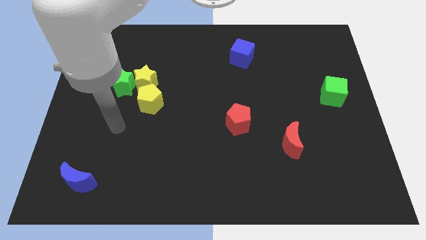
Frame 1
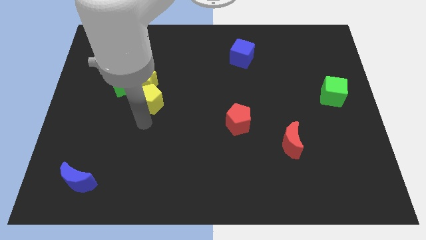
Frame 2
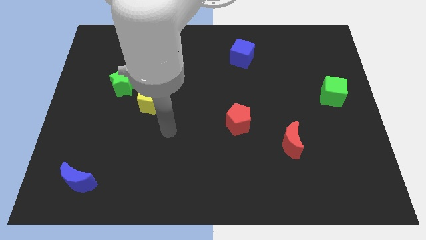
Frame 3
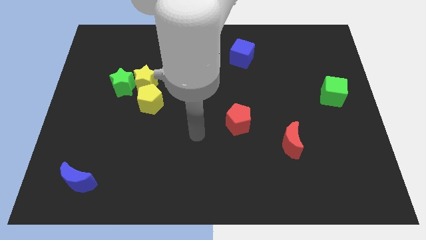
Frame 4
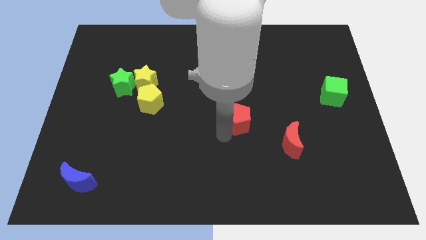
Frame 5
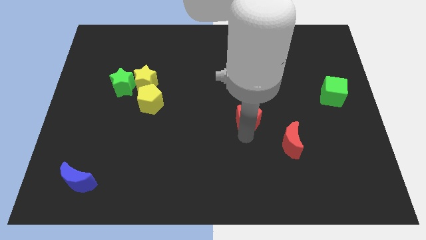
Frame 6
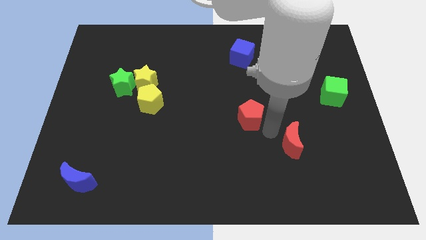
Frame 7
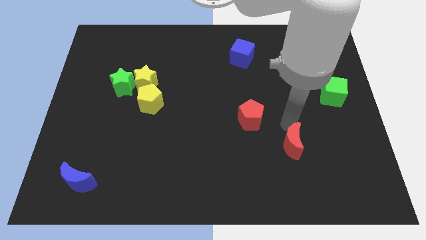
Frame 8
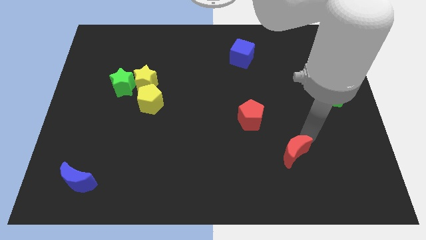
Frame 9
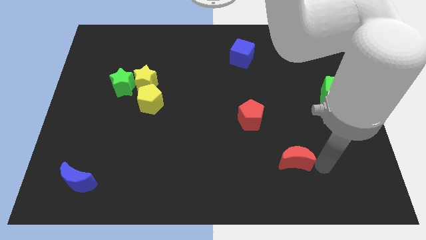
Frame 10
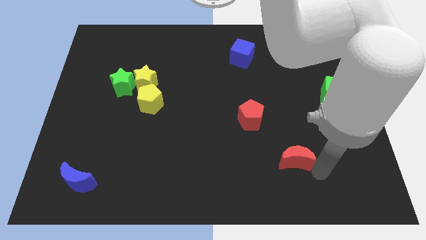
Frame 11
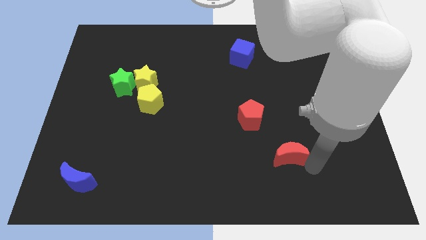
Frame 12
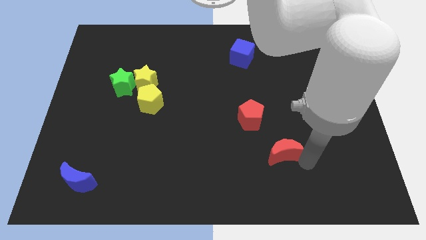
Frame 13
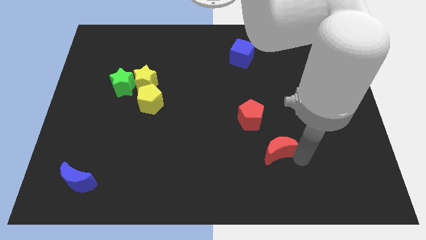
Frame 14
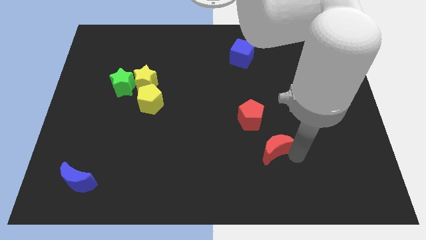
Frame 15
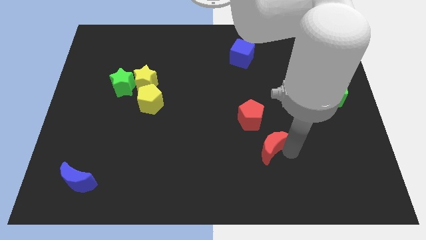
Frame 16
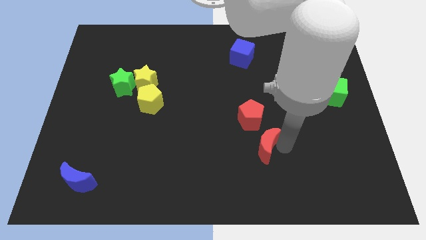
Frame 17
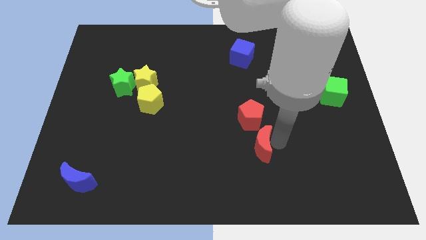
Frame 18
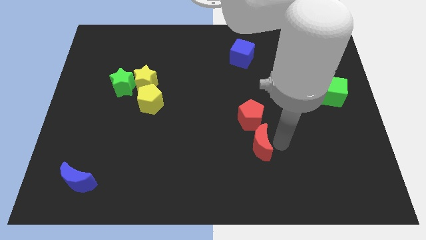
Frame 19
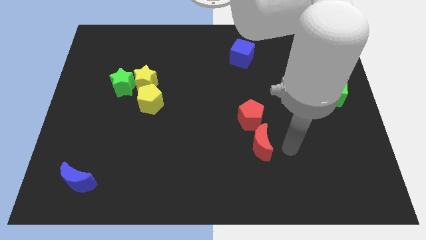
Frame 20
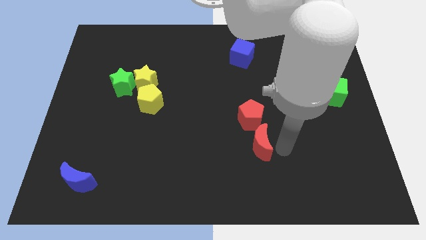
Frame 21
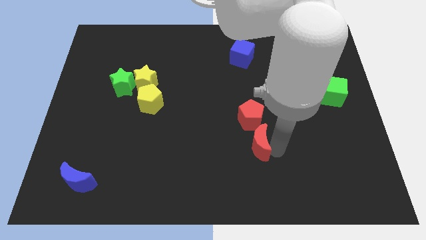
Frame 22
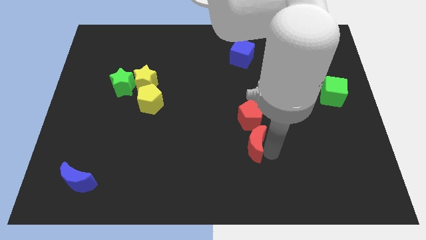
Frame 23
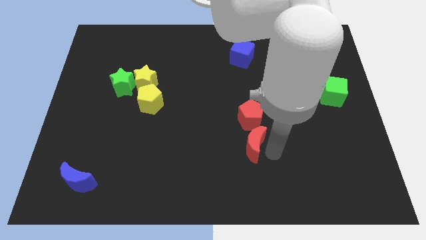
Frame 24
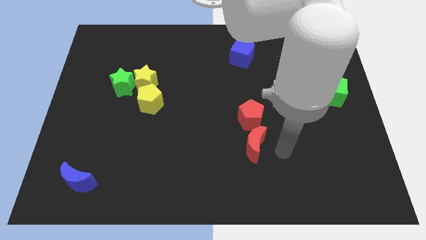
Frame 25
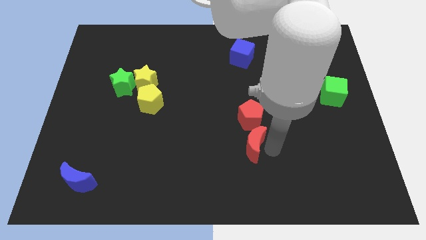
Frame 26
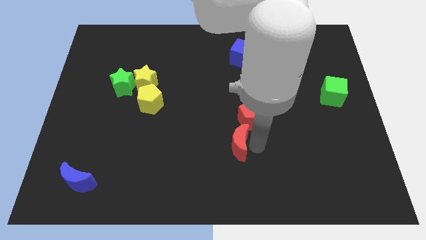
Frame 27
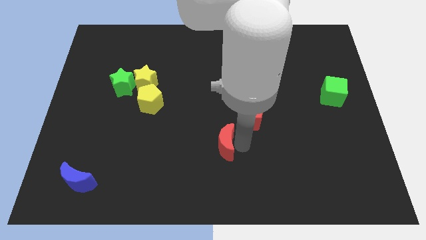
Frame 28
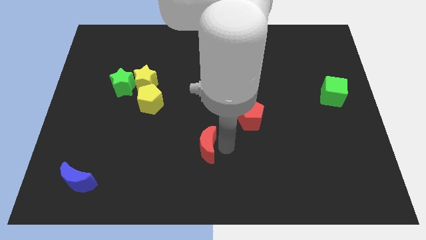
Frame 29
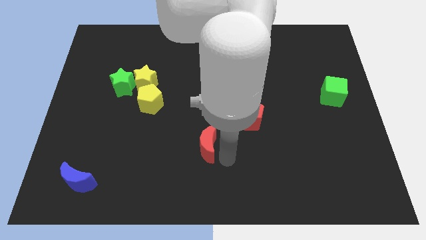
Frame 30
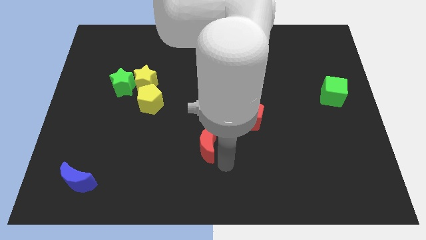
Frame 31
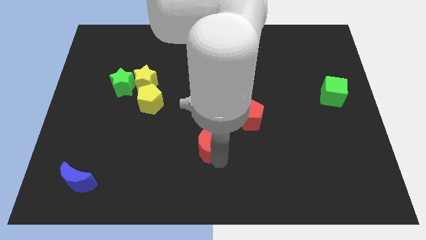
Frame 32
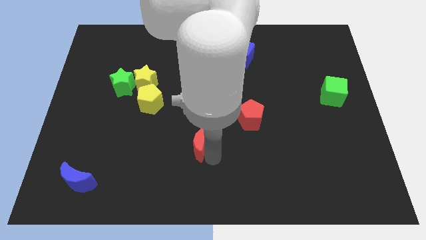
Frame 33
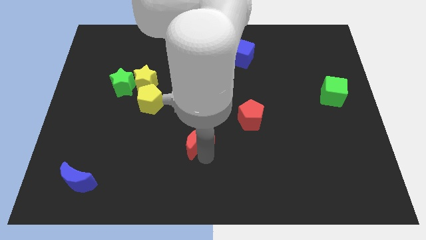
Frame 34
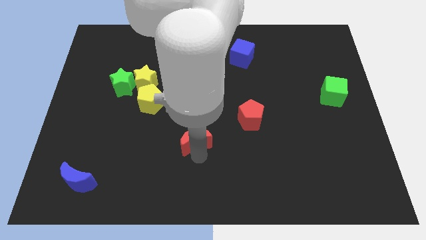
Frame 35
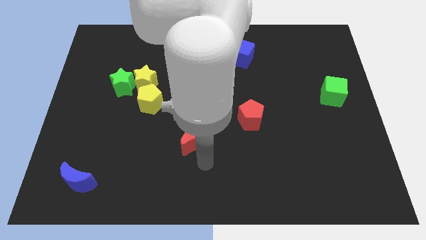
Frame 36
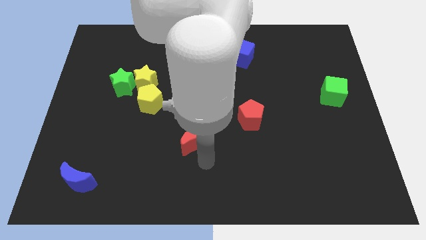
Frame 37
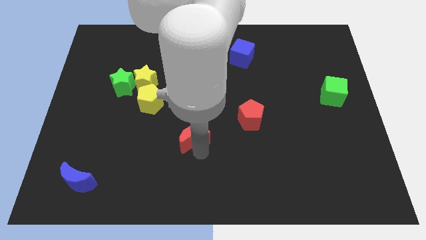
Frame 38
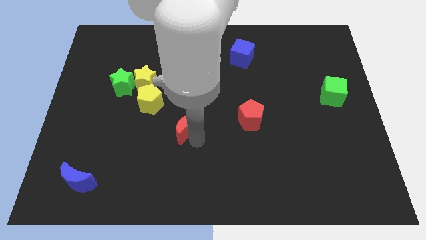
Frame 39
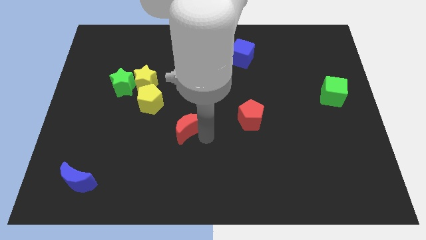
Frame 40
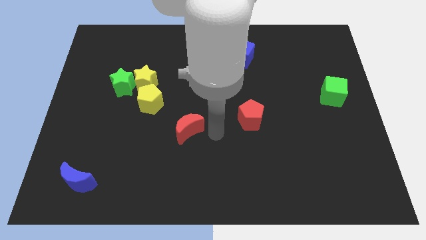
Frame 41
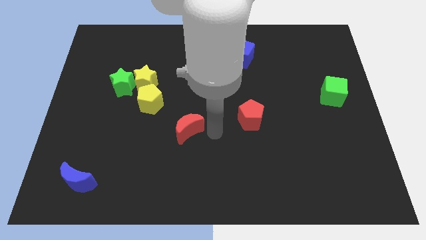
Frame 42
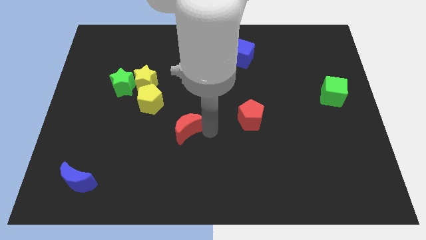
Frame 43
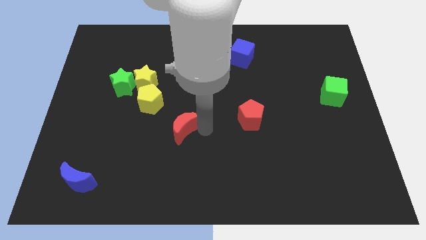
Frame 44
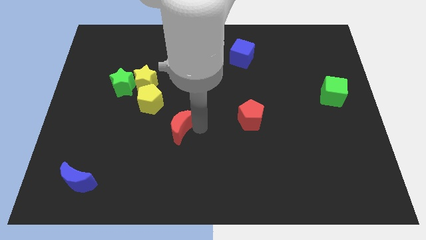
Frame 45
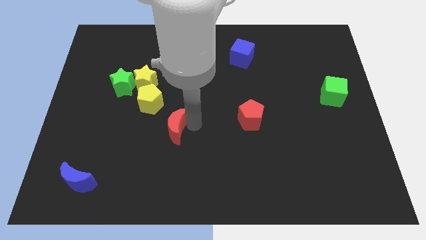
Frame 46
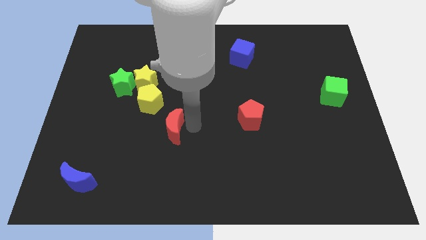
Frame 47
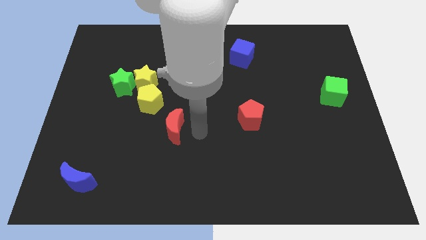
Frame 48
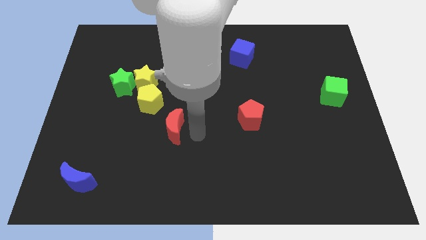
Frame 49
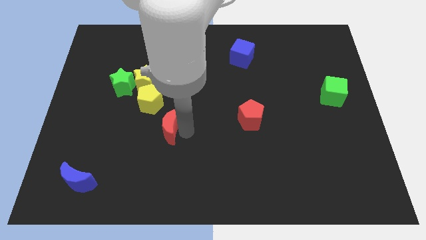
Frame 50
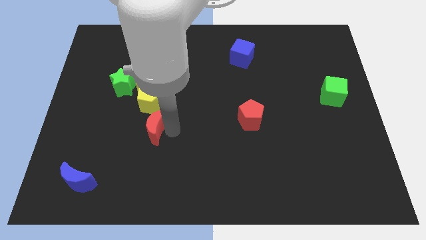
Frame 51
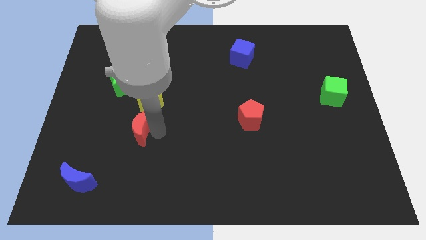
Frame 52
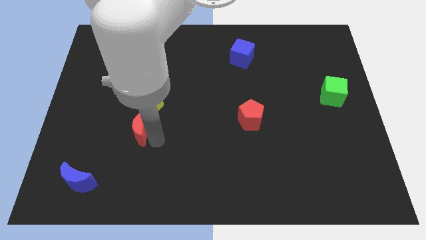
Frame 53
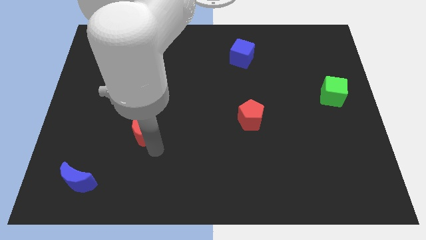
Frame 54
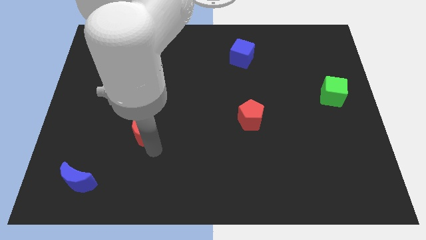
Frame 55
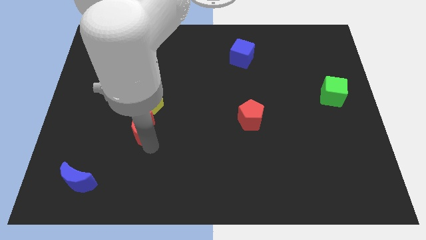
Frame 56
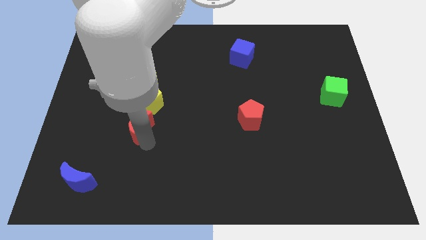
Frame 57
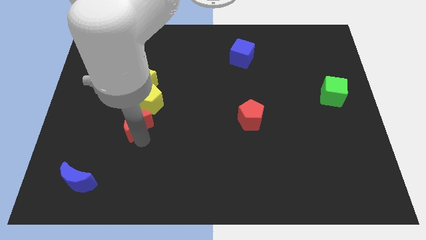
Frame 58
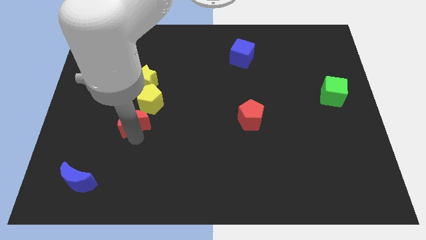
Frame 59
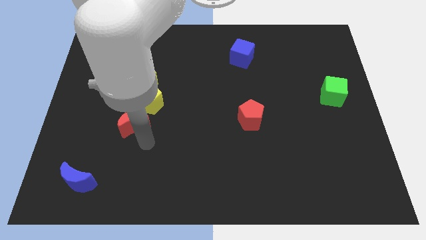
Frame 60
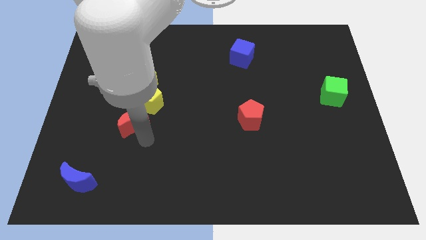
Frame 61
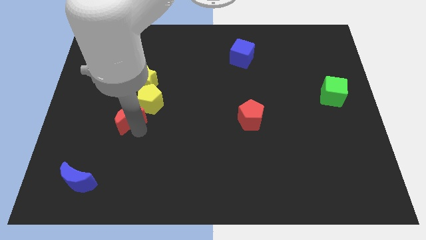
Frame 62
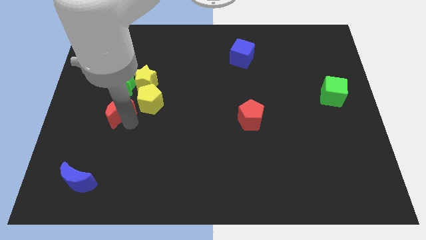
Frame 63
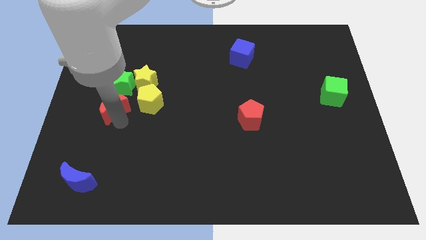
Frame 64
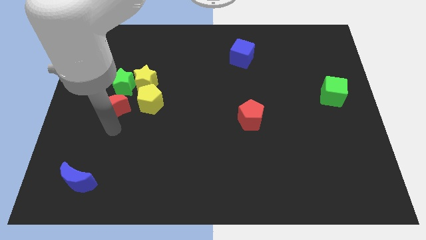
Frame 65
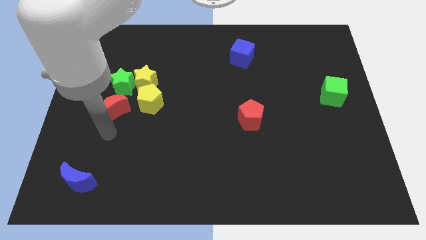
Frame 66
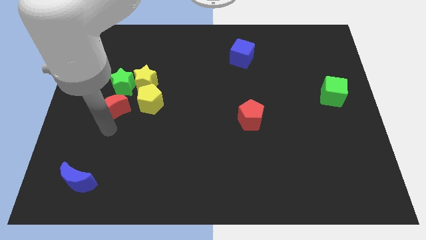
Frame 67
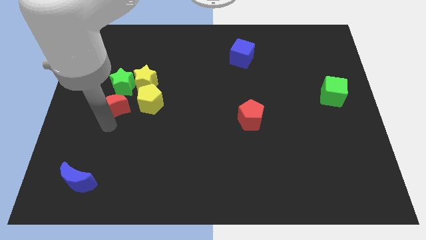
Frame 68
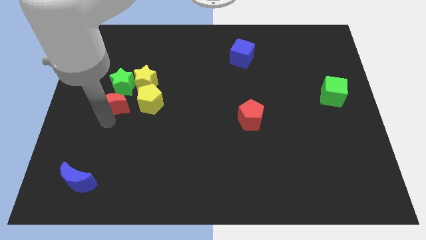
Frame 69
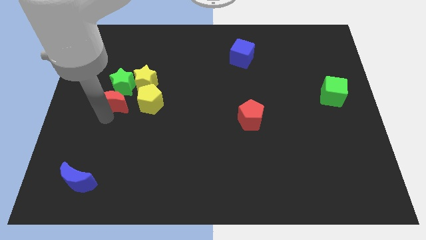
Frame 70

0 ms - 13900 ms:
move the red moon to the green star

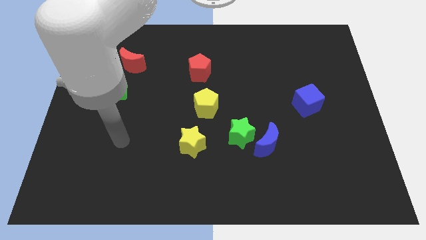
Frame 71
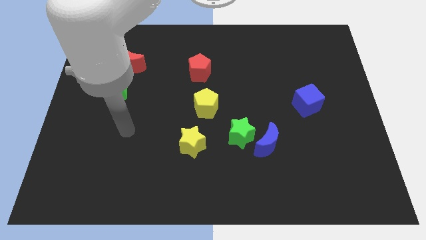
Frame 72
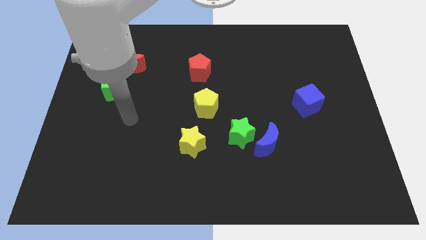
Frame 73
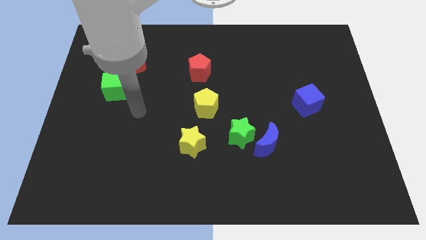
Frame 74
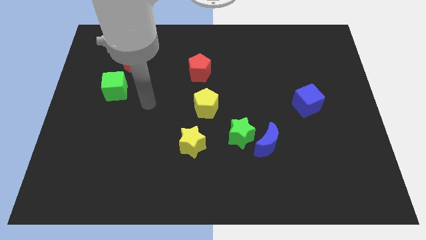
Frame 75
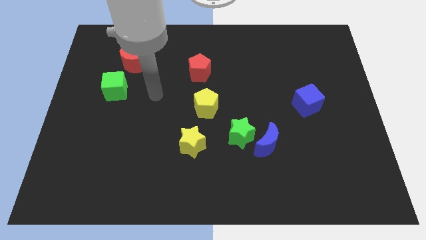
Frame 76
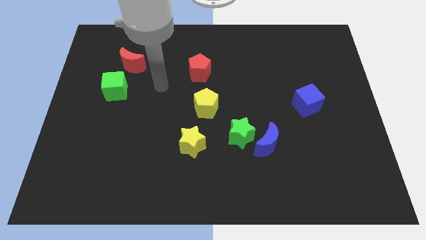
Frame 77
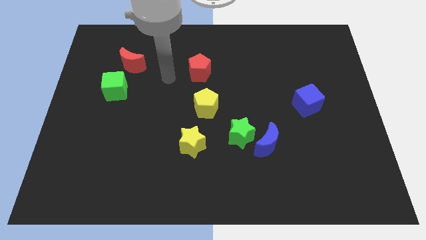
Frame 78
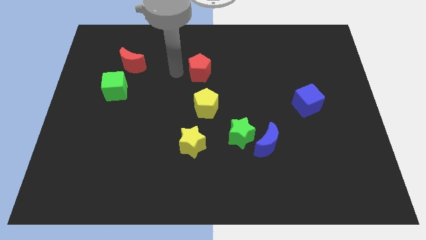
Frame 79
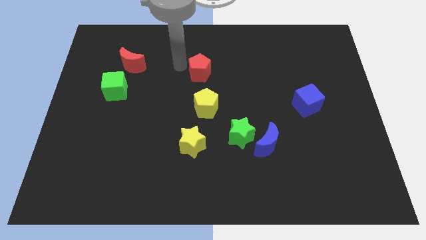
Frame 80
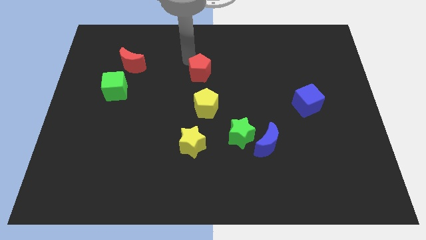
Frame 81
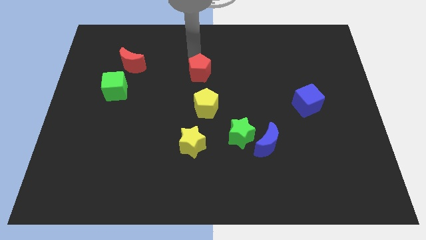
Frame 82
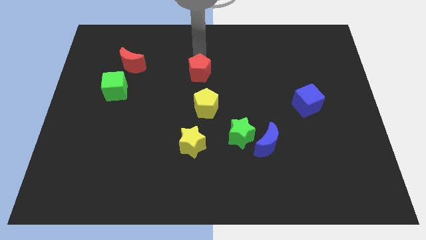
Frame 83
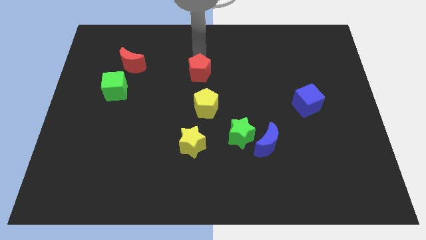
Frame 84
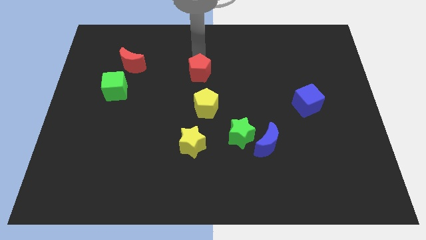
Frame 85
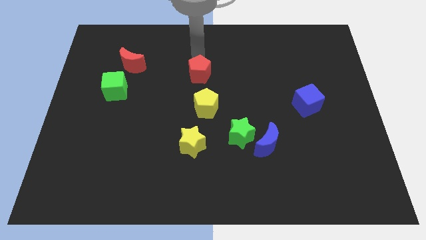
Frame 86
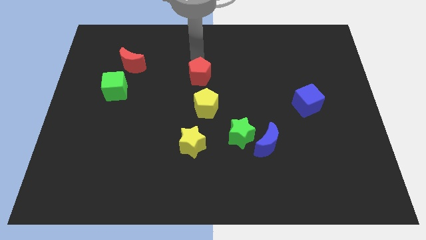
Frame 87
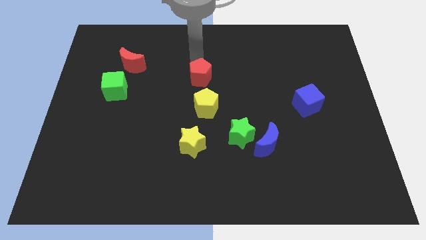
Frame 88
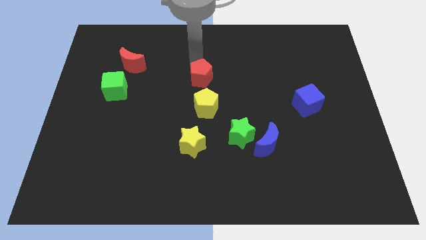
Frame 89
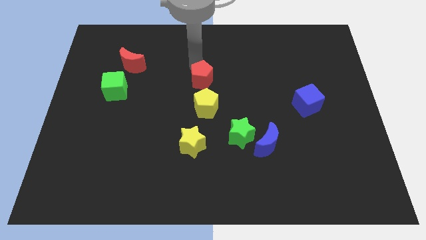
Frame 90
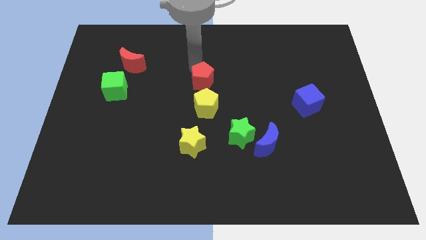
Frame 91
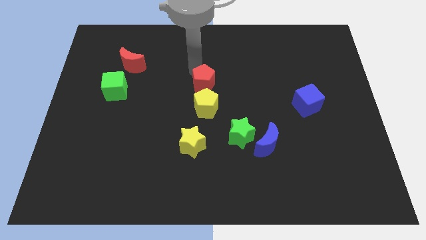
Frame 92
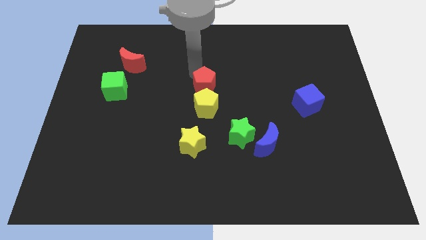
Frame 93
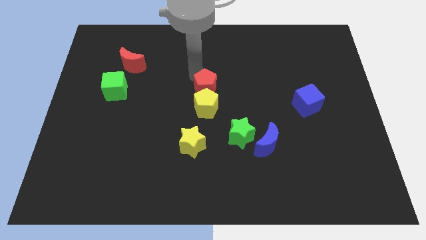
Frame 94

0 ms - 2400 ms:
put the red pentagon towards the yellow pentagon
